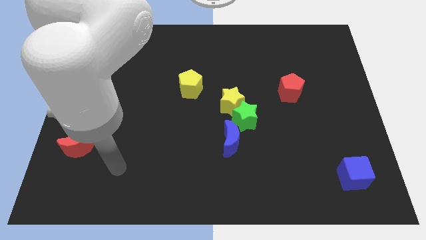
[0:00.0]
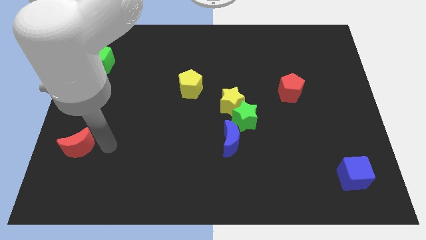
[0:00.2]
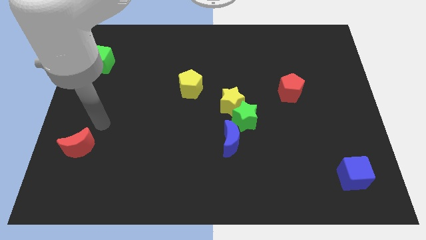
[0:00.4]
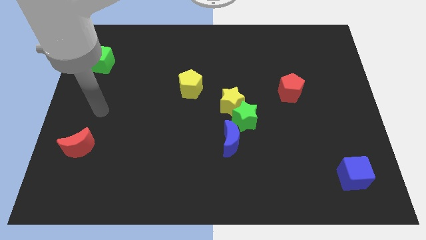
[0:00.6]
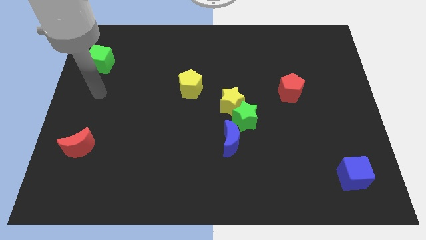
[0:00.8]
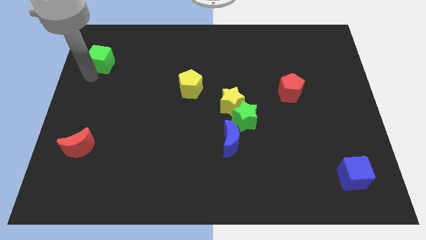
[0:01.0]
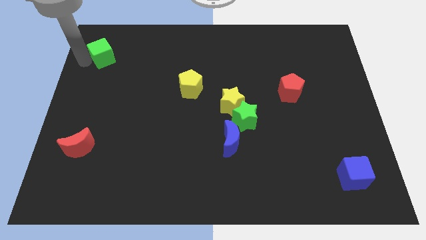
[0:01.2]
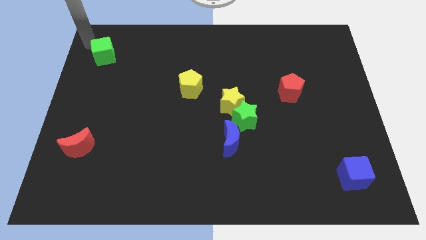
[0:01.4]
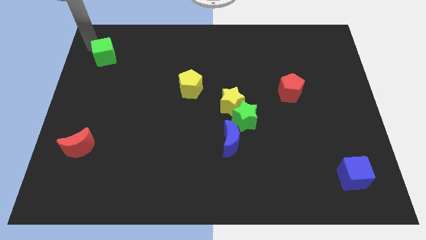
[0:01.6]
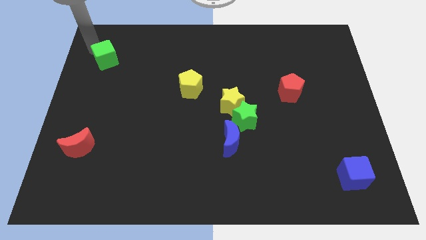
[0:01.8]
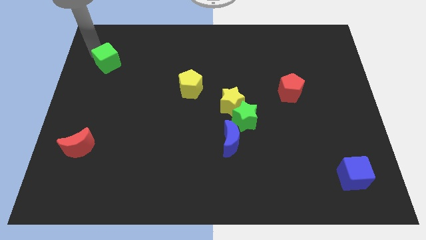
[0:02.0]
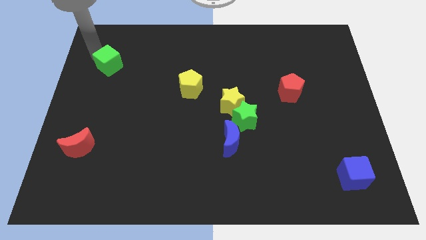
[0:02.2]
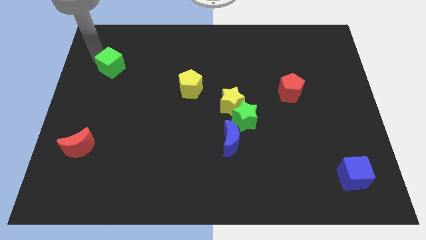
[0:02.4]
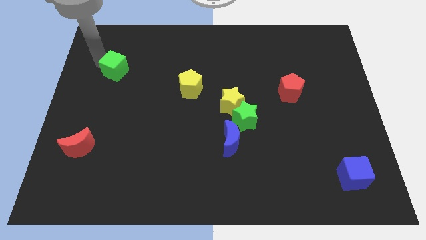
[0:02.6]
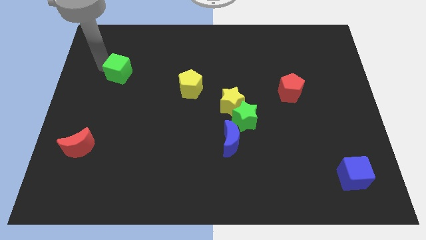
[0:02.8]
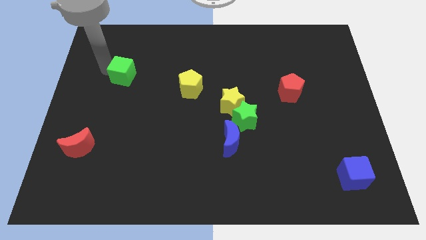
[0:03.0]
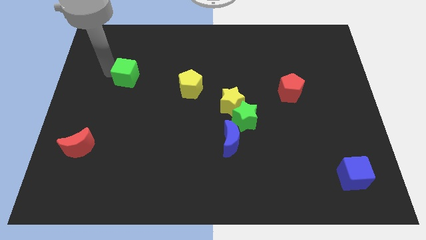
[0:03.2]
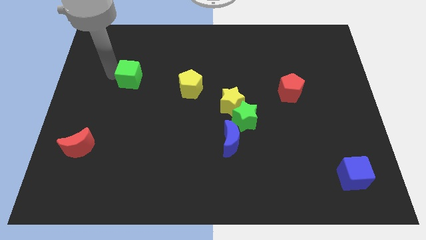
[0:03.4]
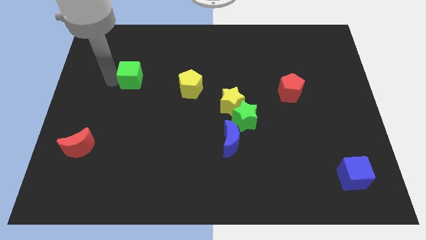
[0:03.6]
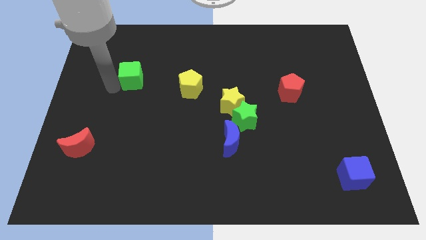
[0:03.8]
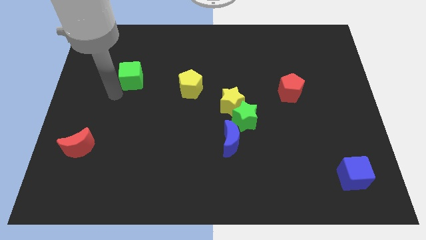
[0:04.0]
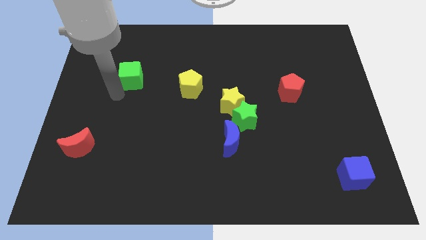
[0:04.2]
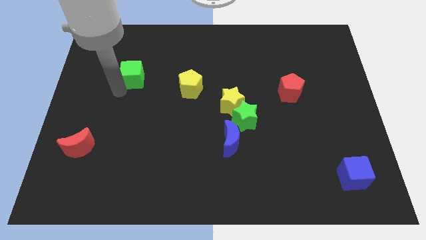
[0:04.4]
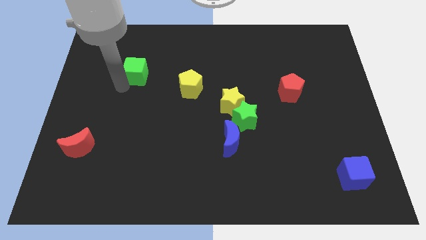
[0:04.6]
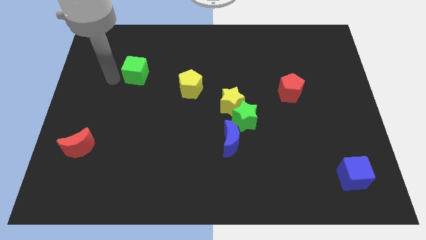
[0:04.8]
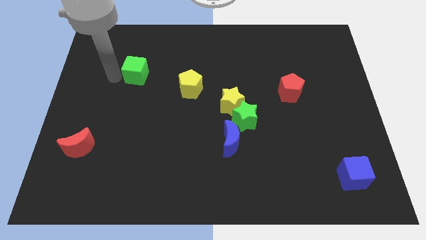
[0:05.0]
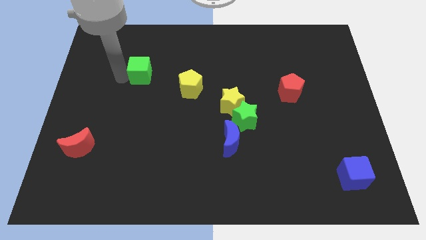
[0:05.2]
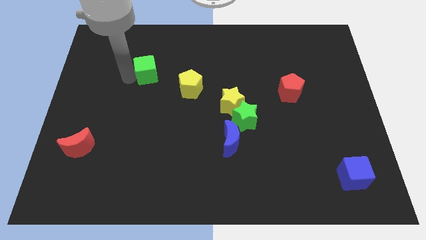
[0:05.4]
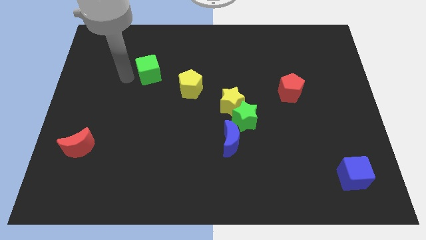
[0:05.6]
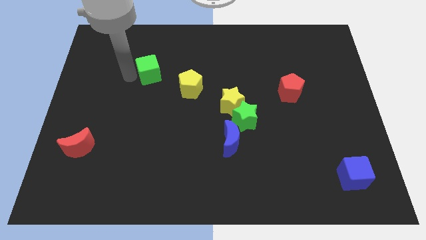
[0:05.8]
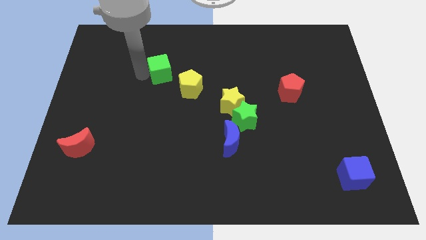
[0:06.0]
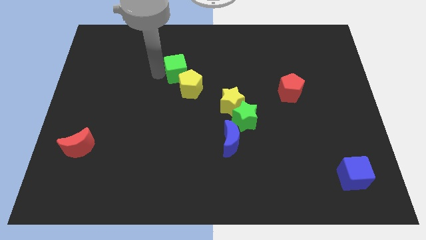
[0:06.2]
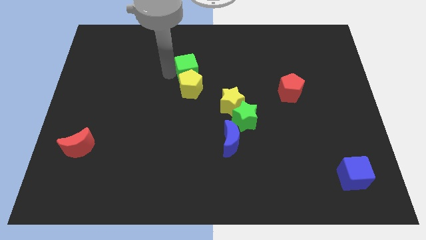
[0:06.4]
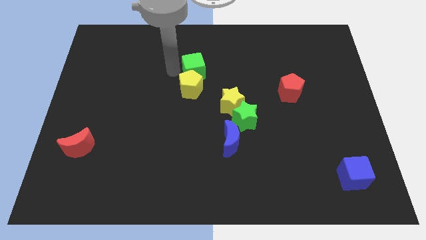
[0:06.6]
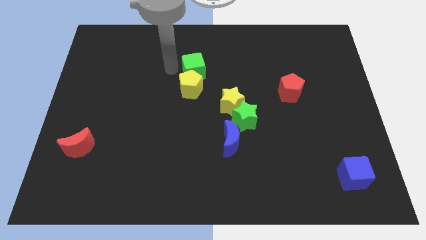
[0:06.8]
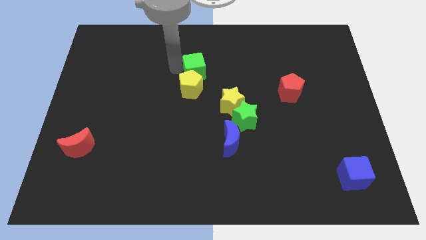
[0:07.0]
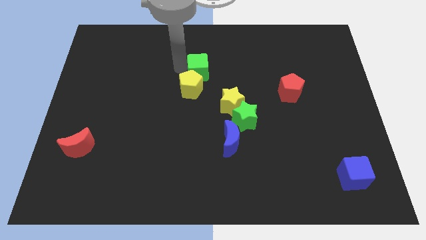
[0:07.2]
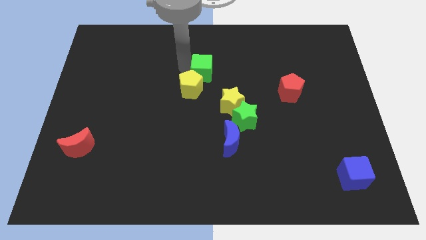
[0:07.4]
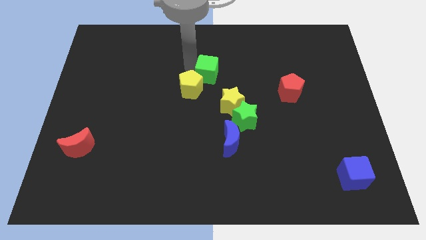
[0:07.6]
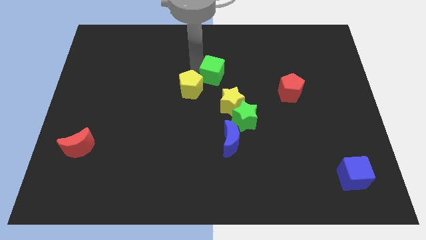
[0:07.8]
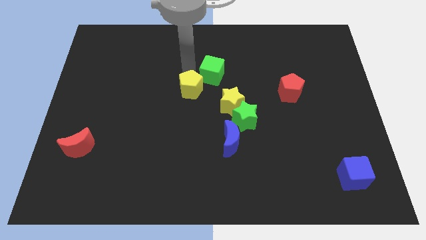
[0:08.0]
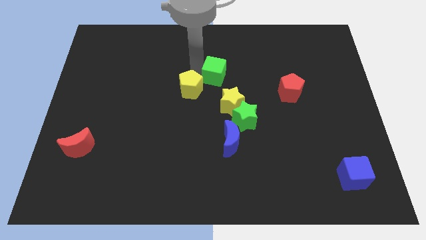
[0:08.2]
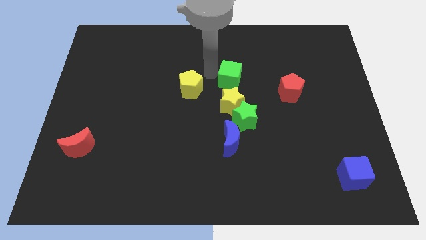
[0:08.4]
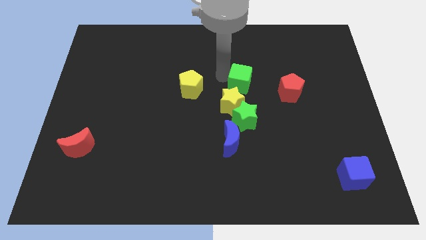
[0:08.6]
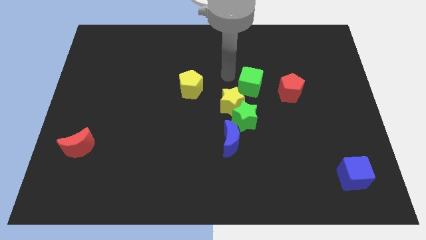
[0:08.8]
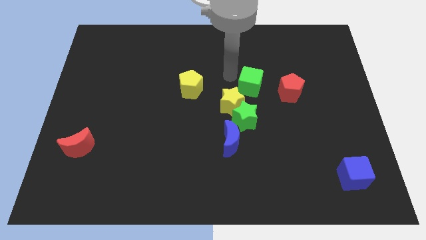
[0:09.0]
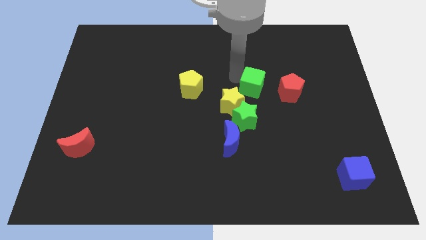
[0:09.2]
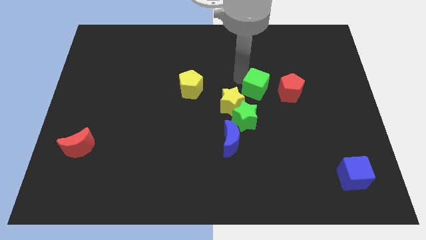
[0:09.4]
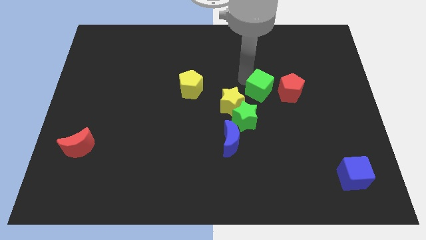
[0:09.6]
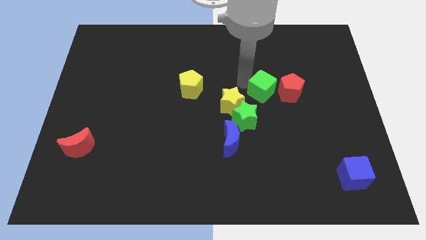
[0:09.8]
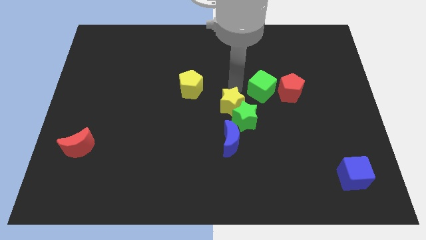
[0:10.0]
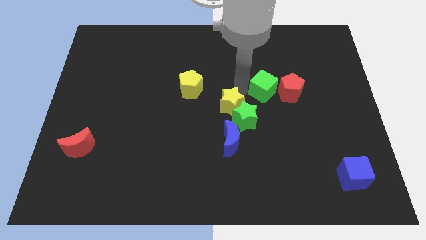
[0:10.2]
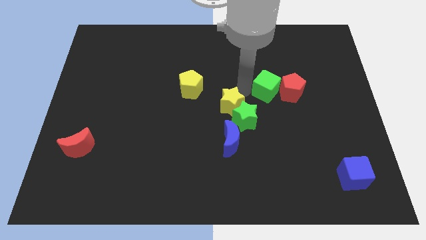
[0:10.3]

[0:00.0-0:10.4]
push the green cube close to the red pentagon

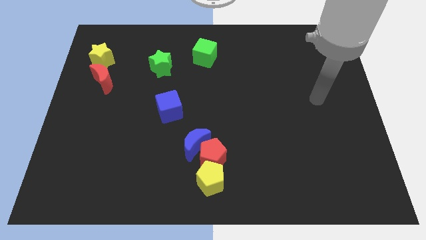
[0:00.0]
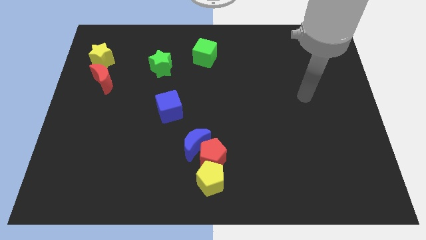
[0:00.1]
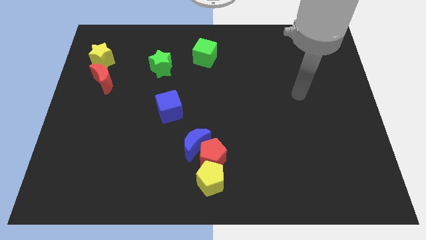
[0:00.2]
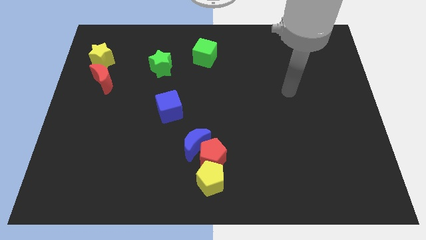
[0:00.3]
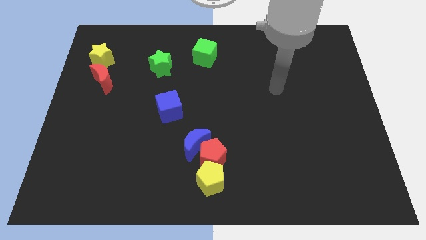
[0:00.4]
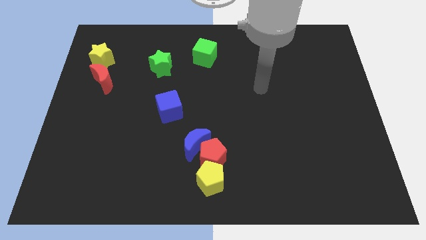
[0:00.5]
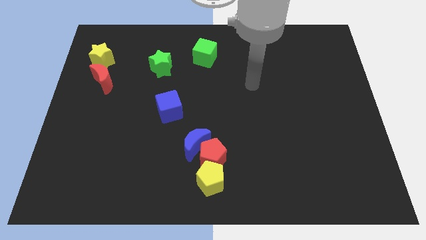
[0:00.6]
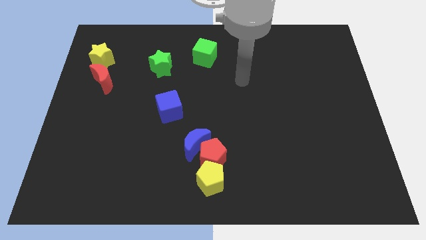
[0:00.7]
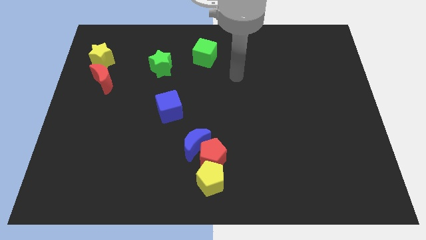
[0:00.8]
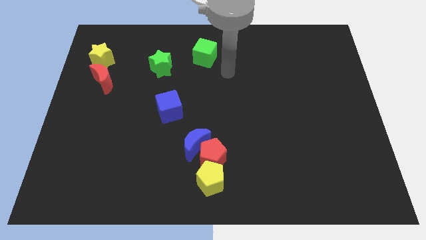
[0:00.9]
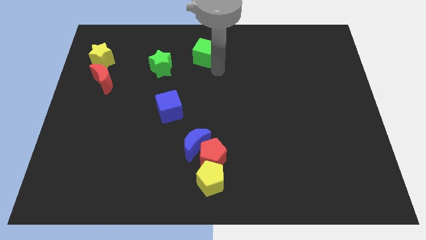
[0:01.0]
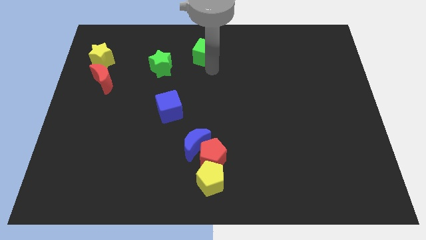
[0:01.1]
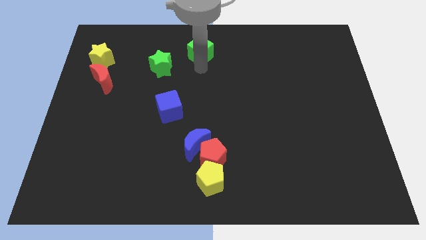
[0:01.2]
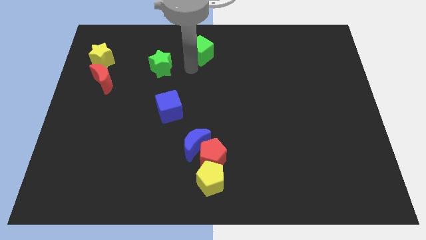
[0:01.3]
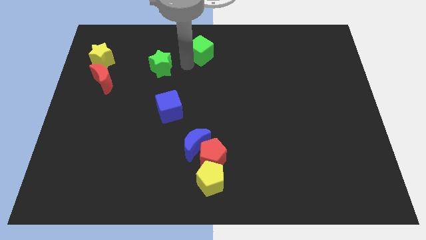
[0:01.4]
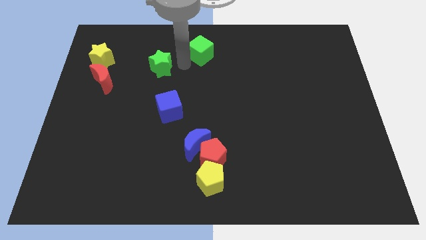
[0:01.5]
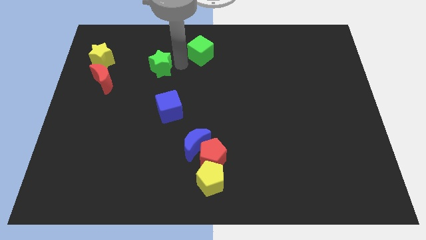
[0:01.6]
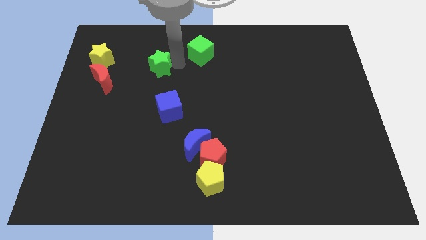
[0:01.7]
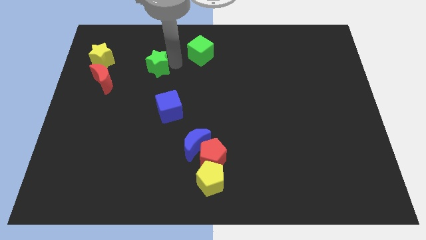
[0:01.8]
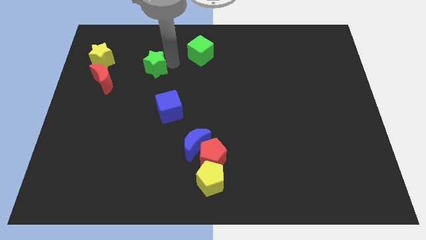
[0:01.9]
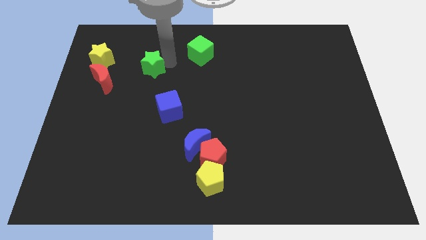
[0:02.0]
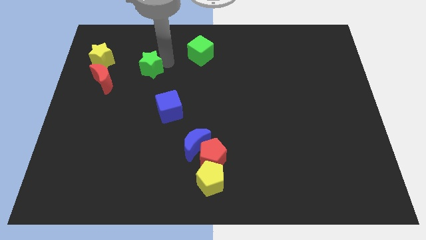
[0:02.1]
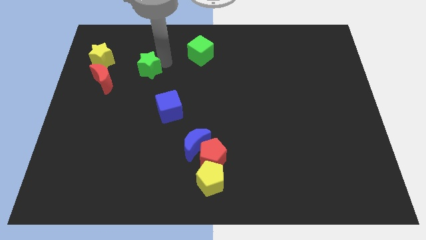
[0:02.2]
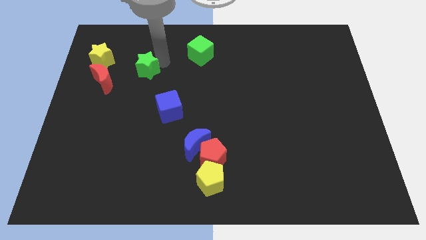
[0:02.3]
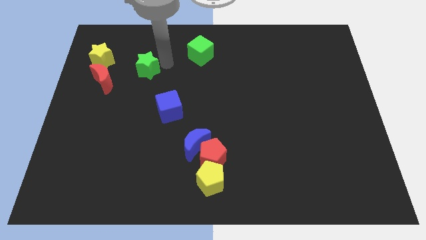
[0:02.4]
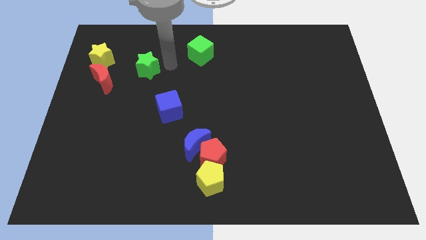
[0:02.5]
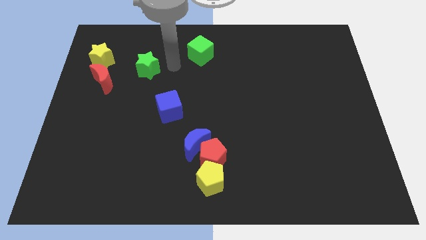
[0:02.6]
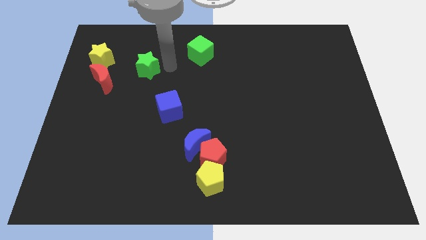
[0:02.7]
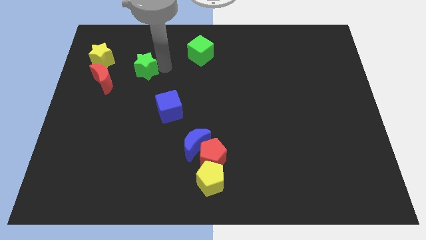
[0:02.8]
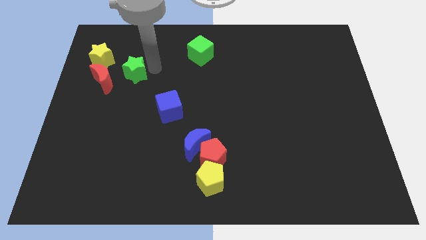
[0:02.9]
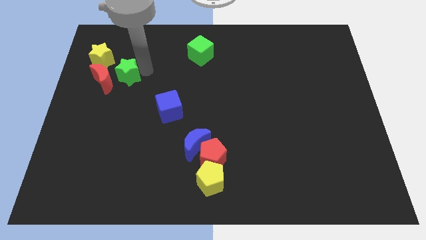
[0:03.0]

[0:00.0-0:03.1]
slide the green star towards the red moon
